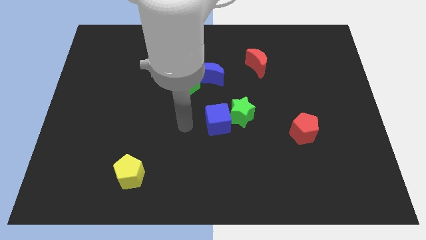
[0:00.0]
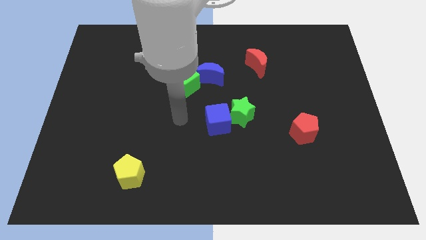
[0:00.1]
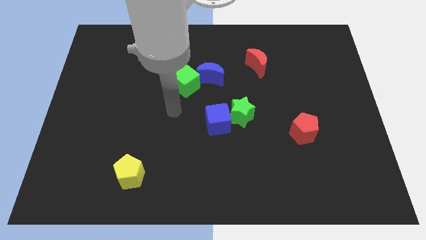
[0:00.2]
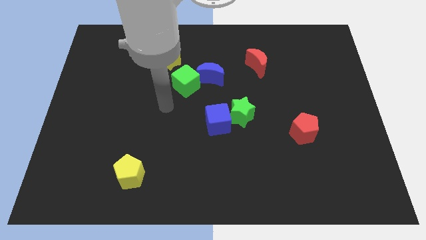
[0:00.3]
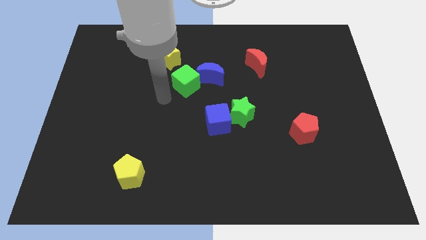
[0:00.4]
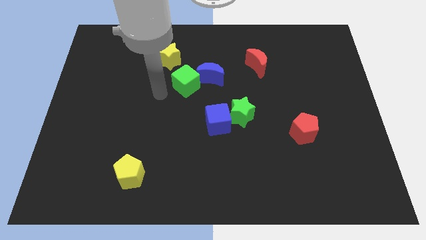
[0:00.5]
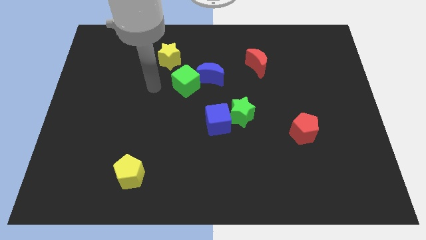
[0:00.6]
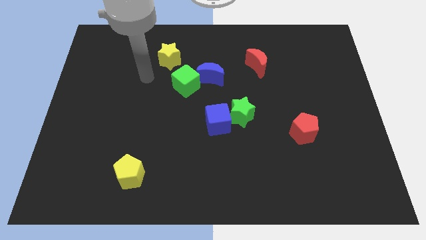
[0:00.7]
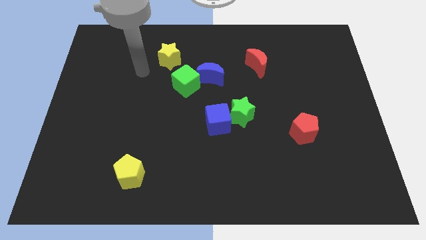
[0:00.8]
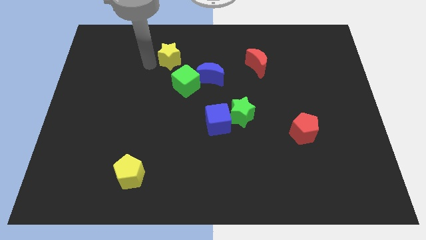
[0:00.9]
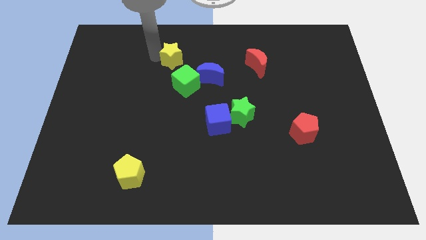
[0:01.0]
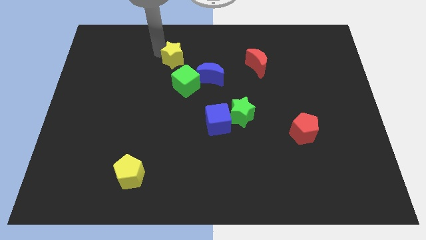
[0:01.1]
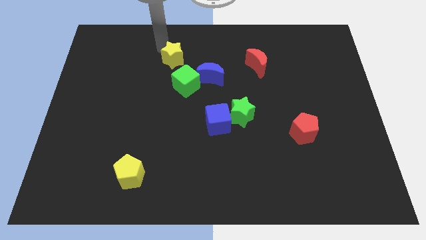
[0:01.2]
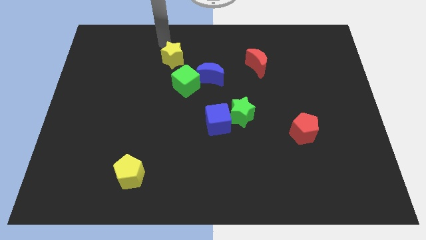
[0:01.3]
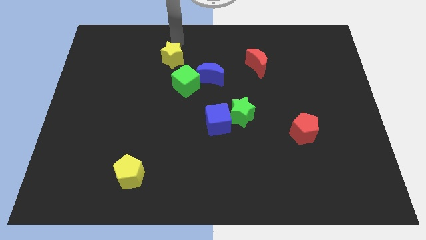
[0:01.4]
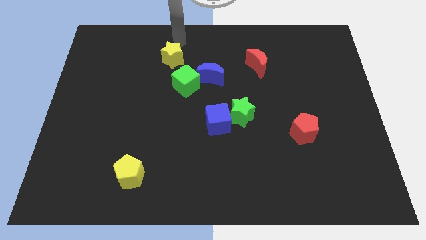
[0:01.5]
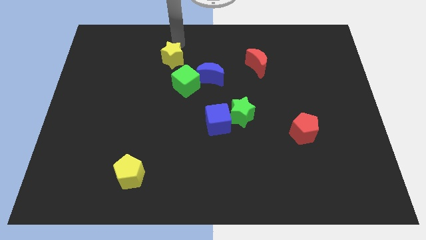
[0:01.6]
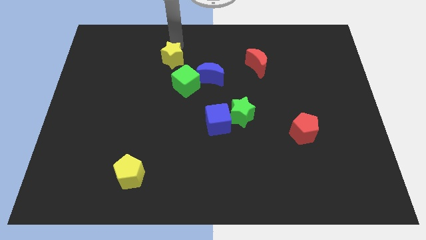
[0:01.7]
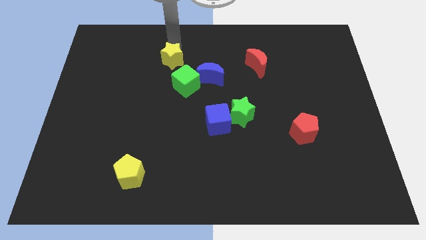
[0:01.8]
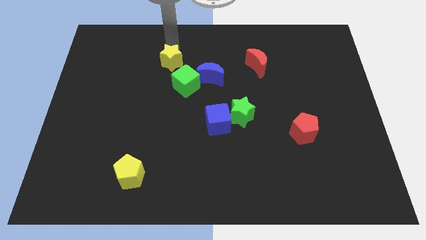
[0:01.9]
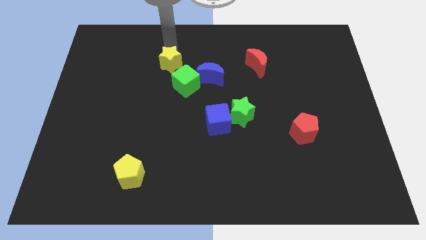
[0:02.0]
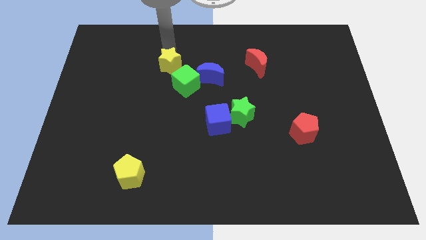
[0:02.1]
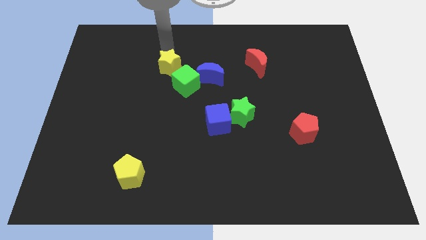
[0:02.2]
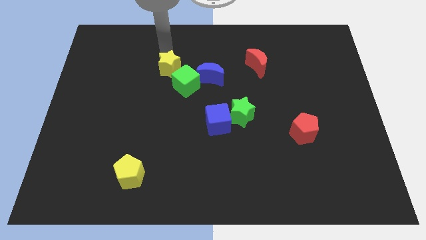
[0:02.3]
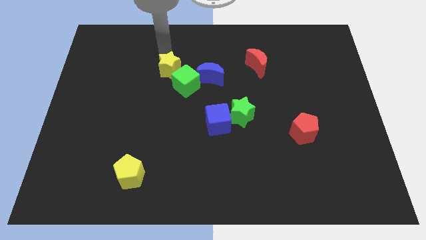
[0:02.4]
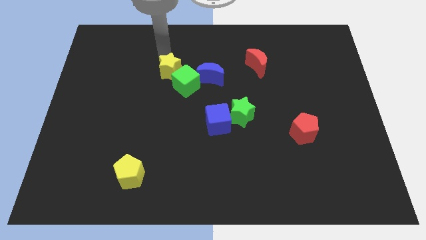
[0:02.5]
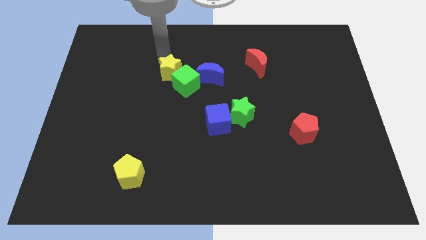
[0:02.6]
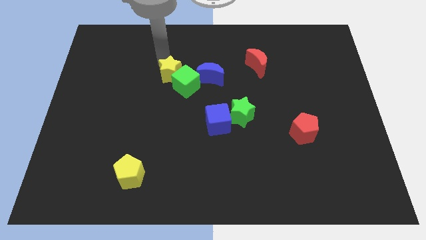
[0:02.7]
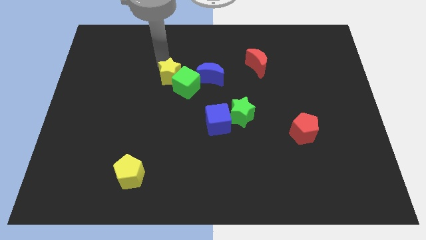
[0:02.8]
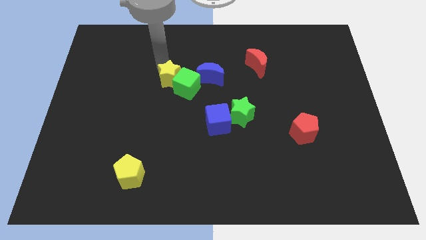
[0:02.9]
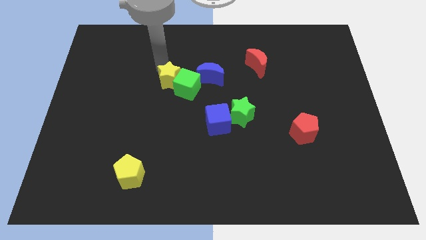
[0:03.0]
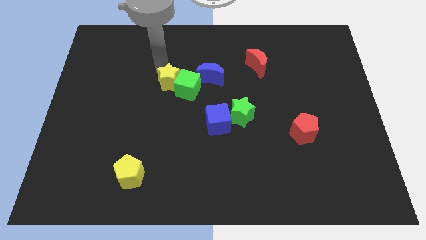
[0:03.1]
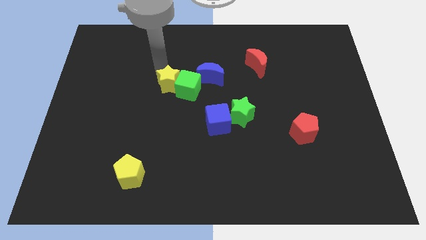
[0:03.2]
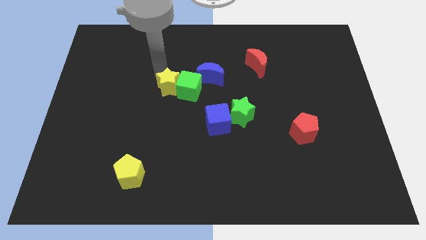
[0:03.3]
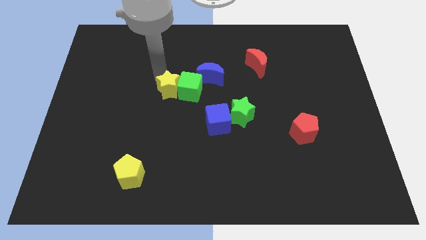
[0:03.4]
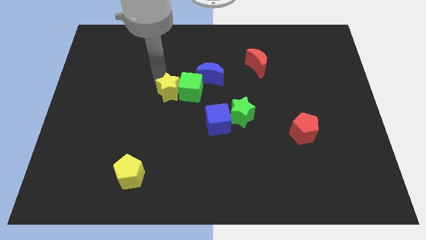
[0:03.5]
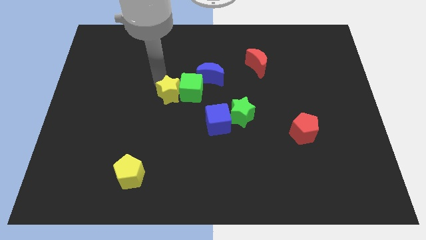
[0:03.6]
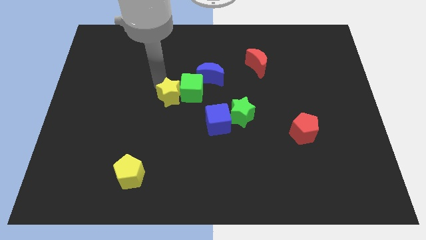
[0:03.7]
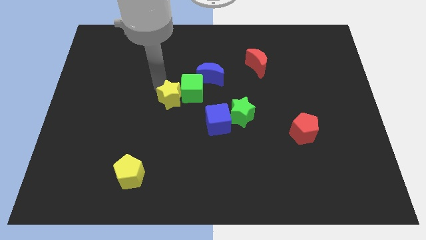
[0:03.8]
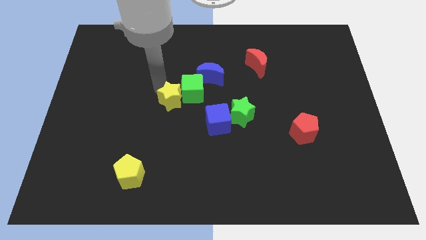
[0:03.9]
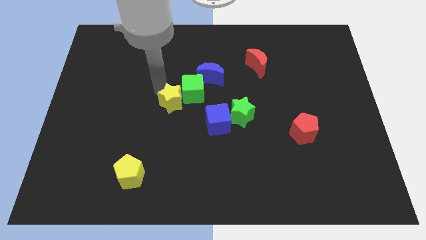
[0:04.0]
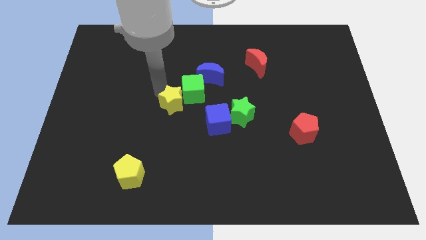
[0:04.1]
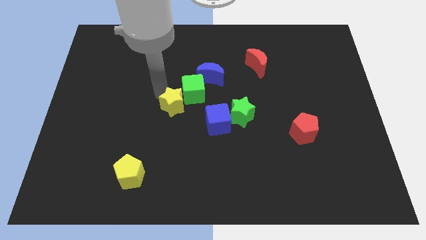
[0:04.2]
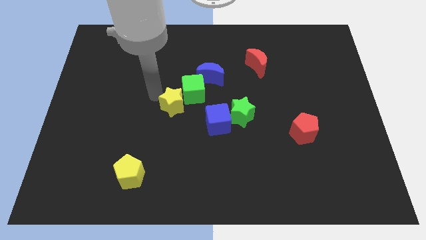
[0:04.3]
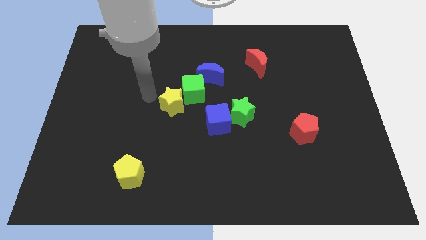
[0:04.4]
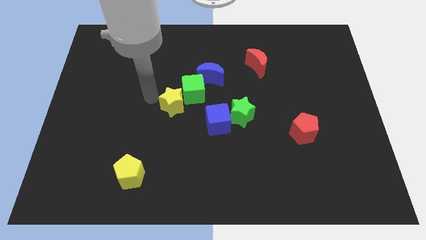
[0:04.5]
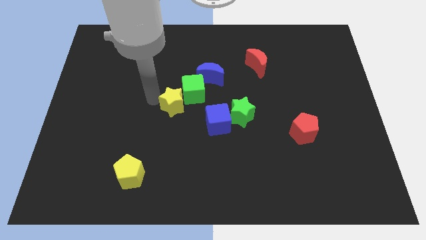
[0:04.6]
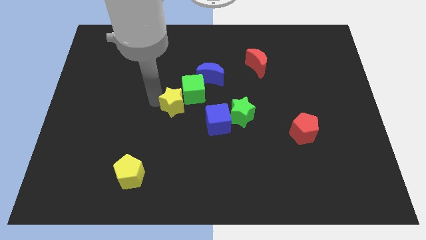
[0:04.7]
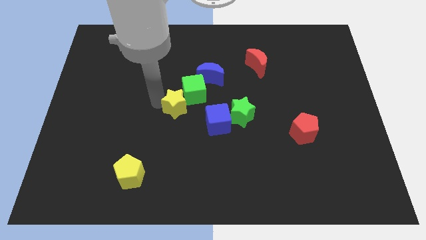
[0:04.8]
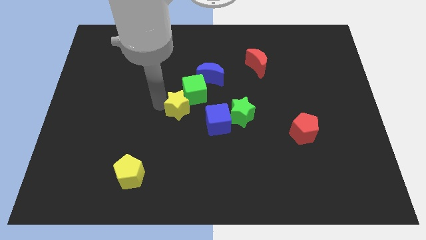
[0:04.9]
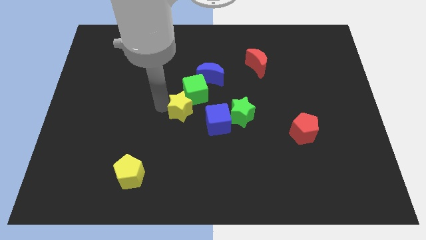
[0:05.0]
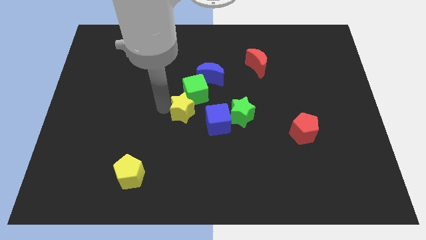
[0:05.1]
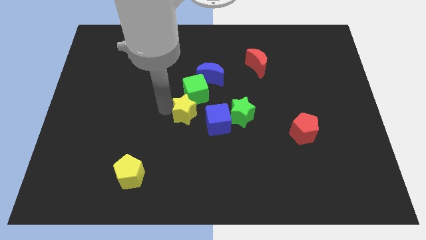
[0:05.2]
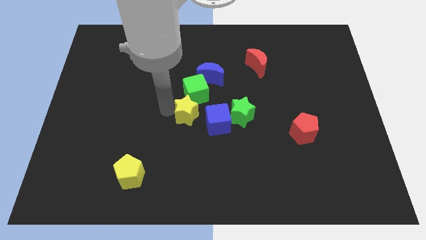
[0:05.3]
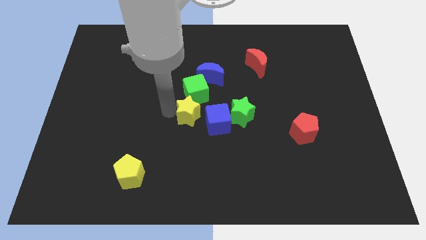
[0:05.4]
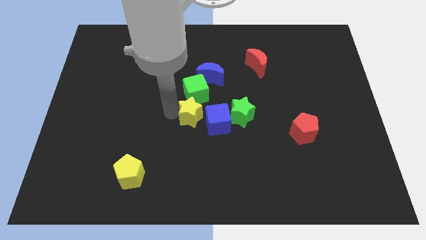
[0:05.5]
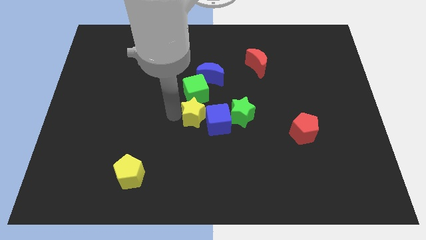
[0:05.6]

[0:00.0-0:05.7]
slide the yellow star to the blue cube
